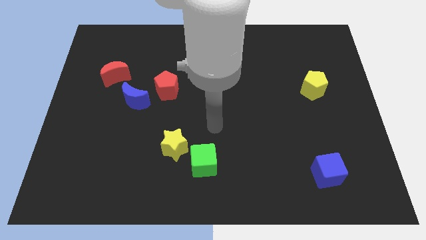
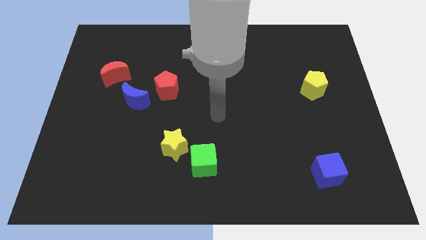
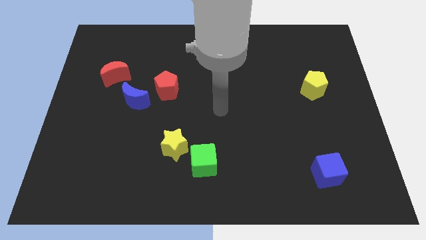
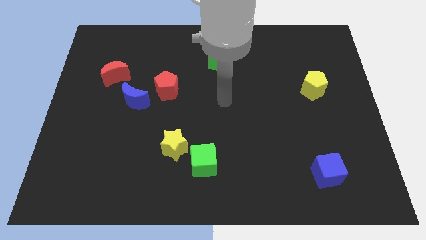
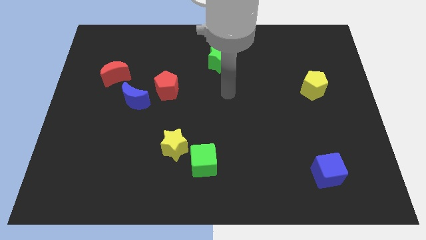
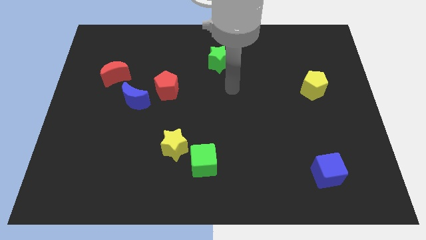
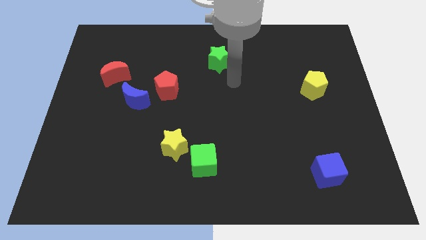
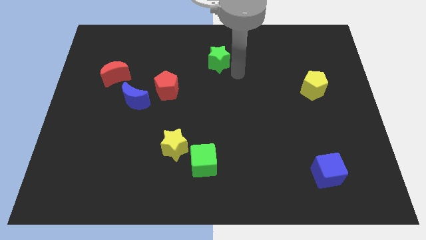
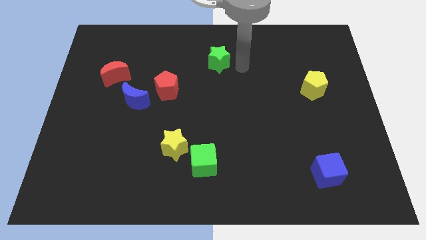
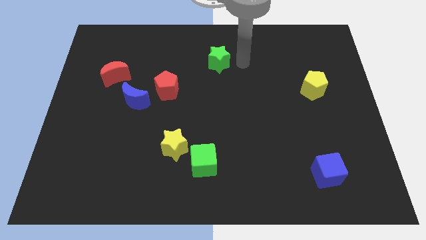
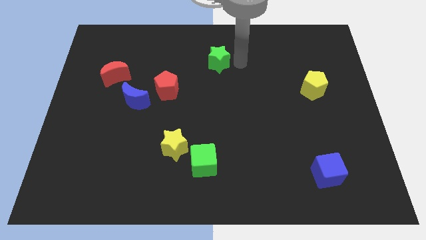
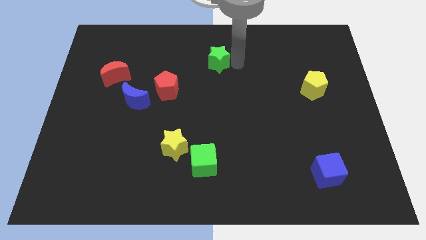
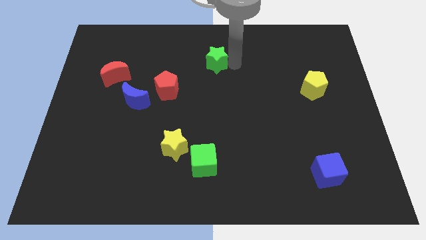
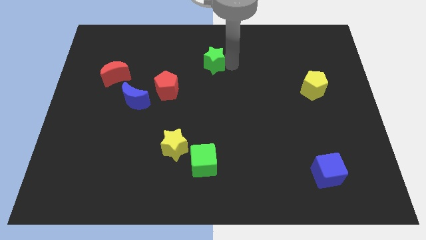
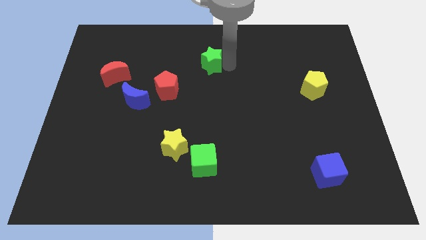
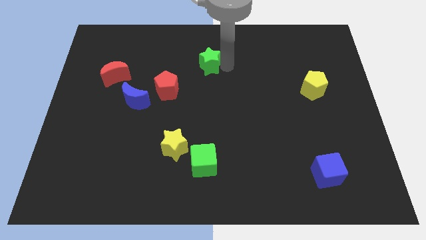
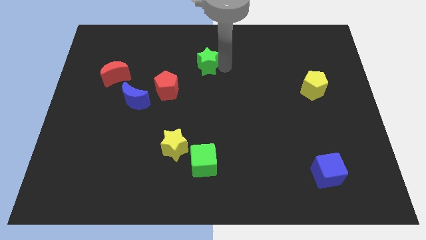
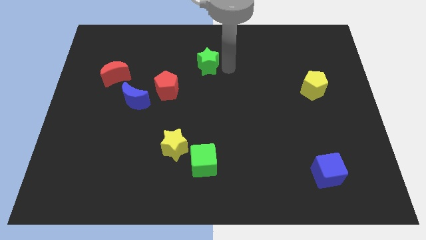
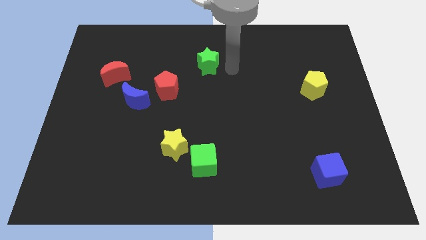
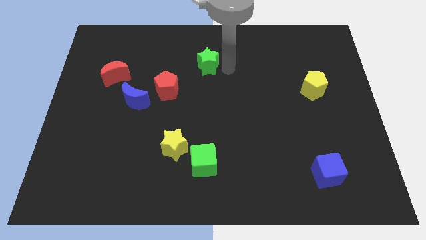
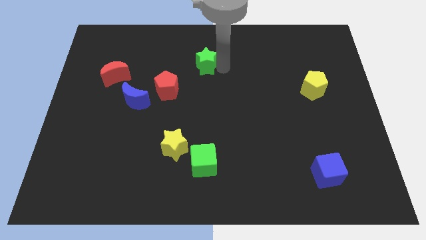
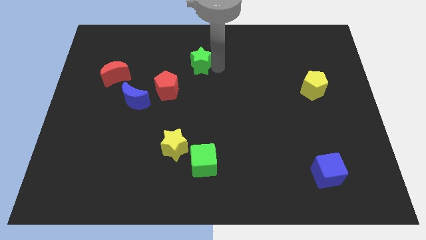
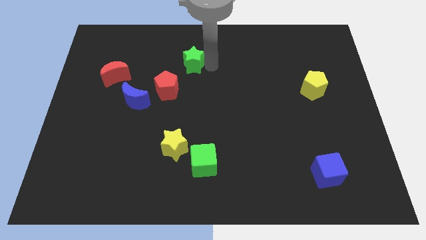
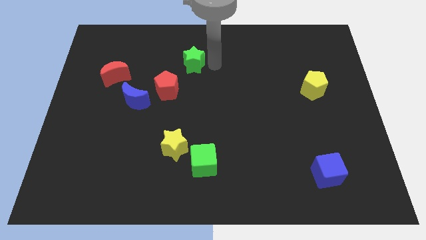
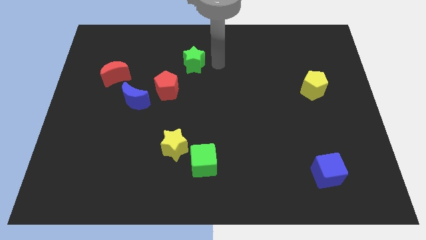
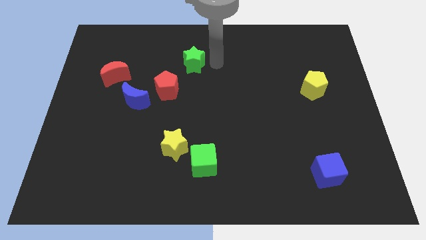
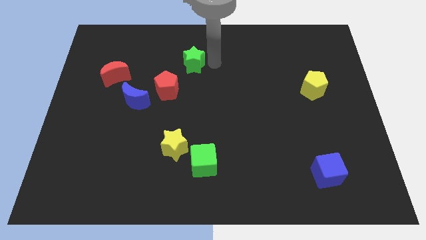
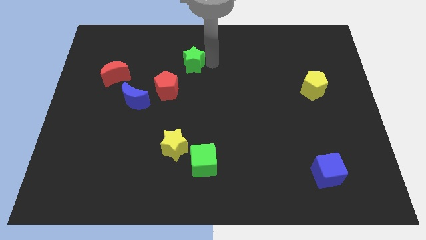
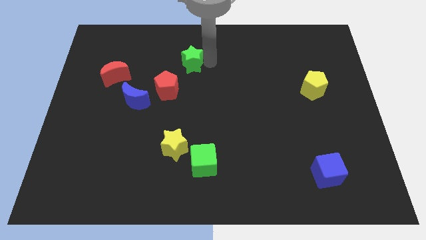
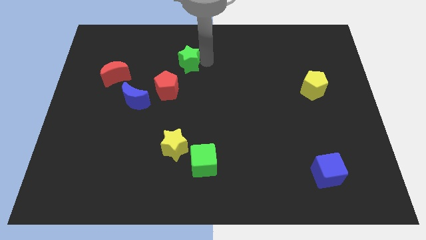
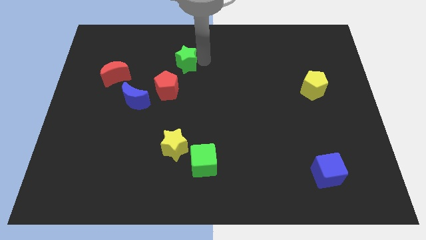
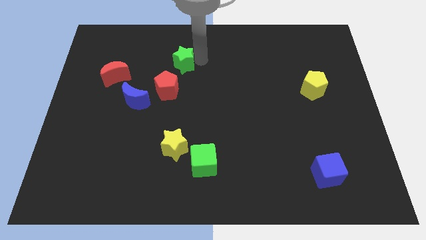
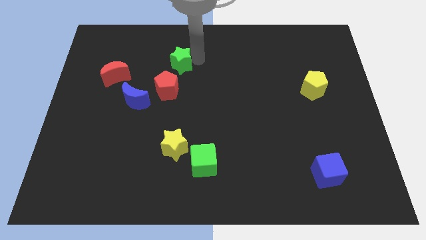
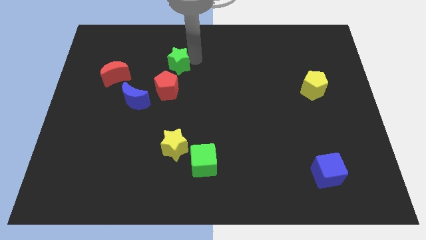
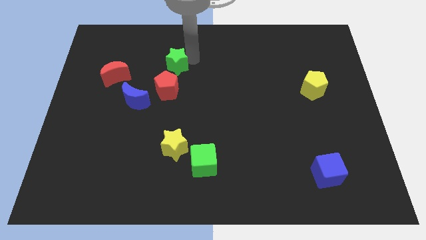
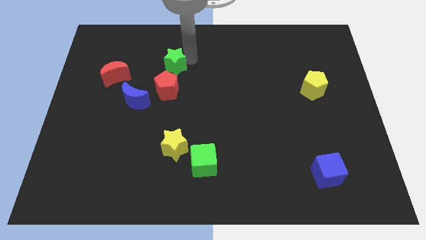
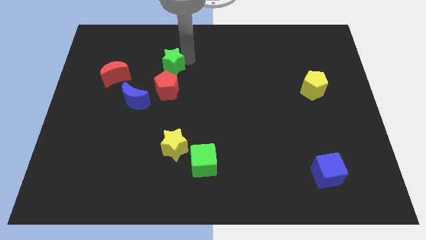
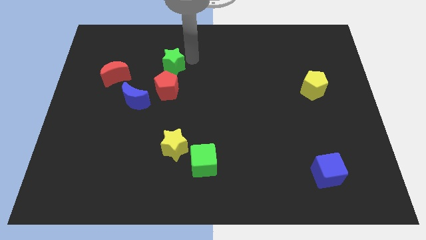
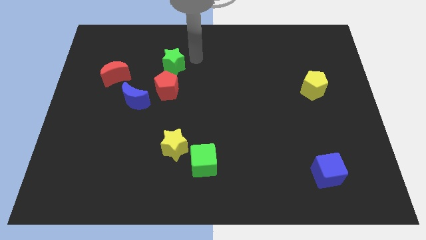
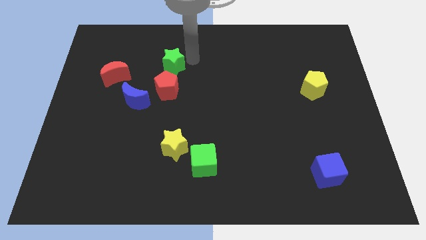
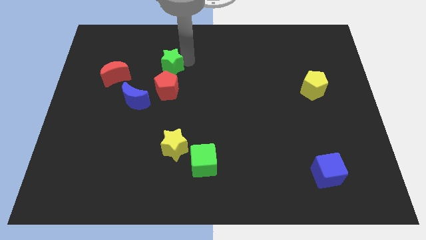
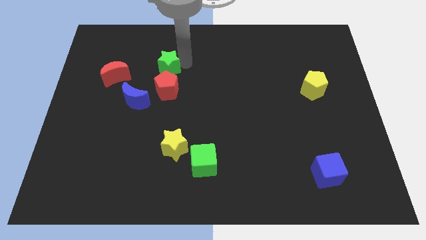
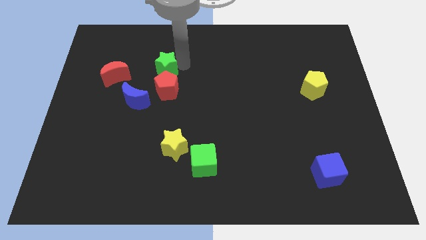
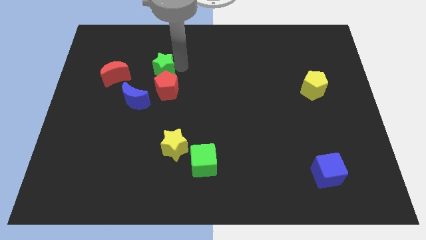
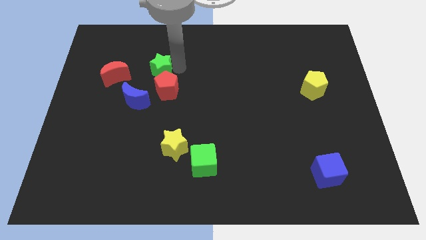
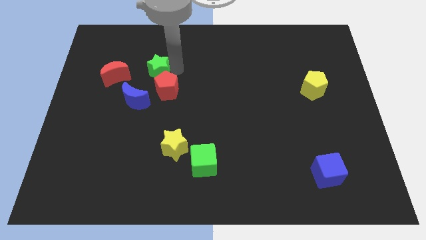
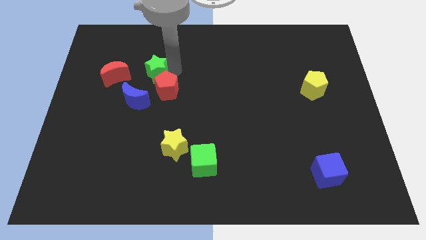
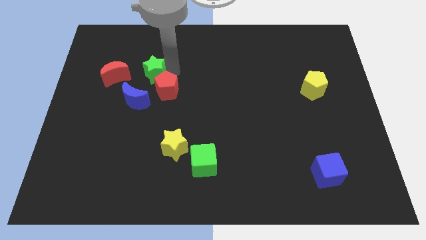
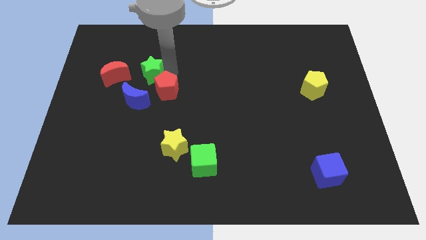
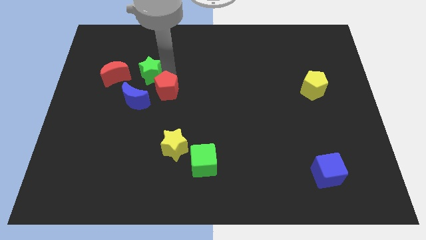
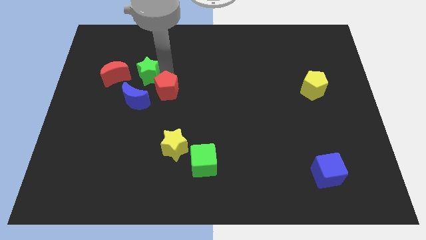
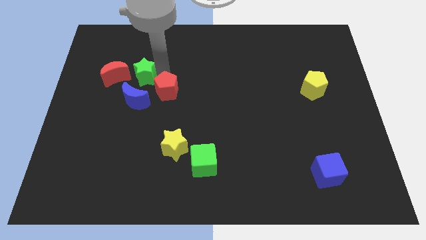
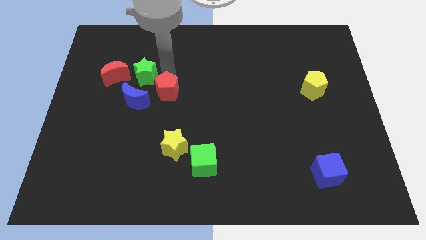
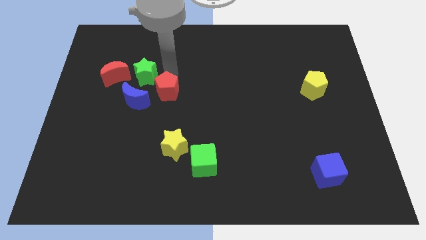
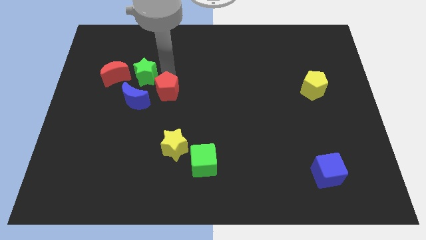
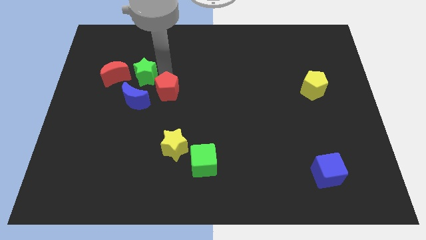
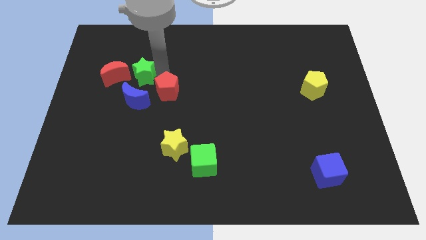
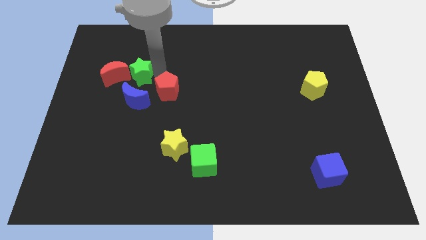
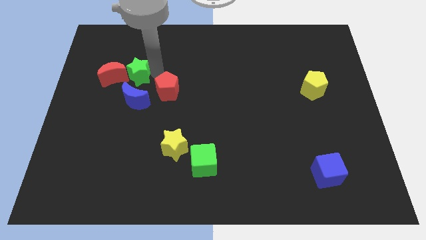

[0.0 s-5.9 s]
slide the green star towards the red moon

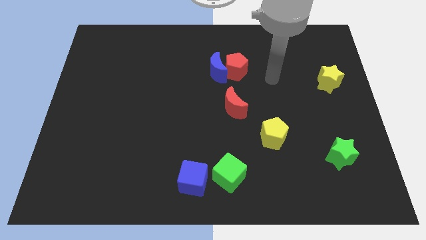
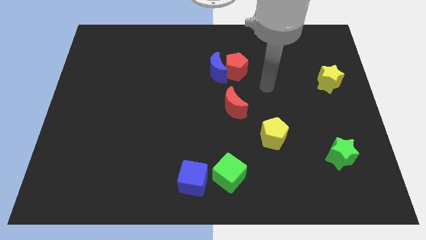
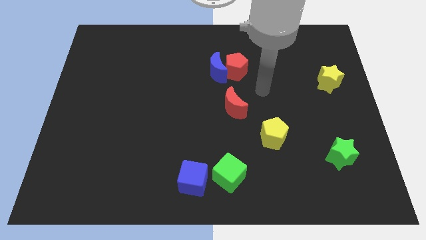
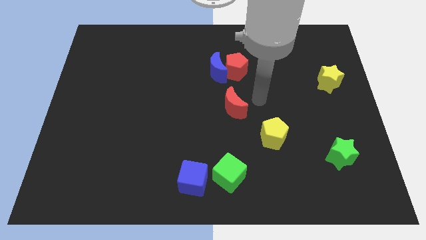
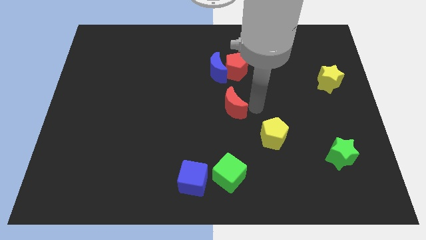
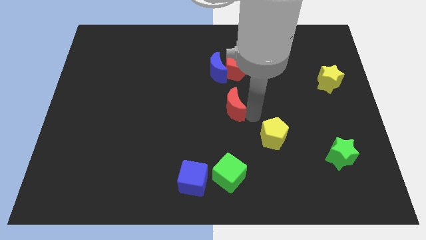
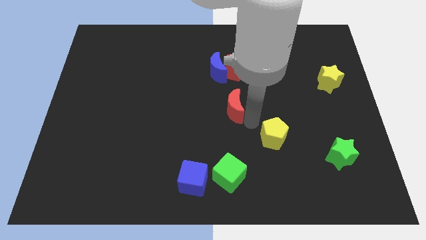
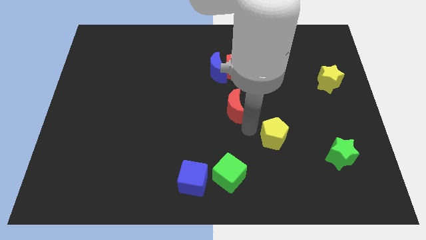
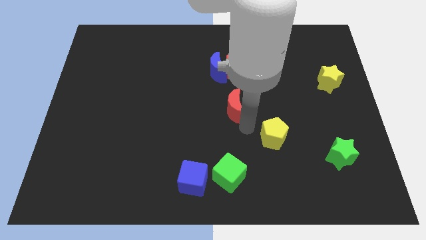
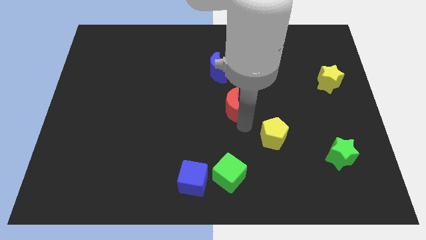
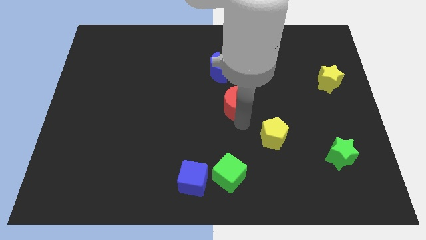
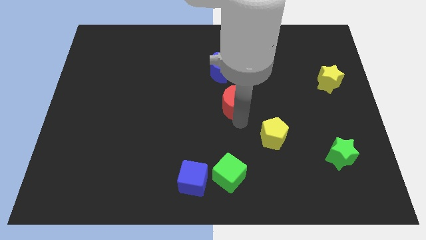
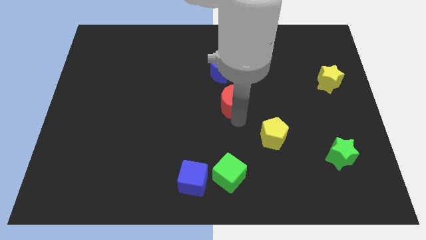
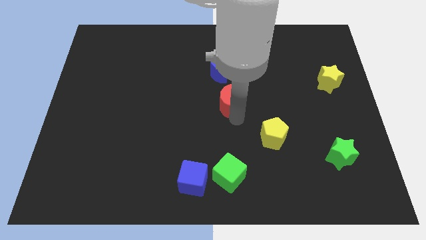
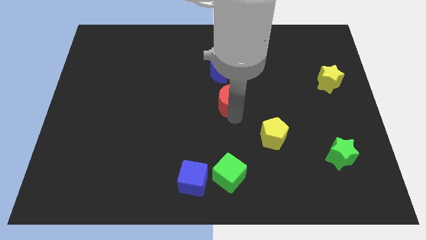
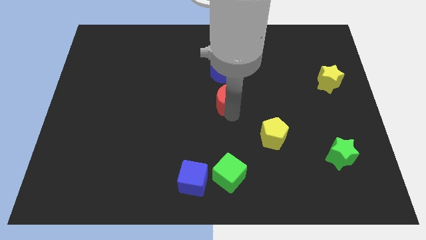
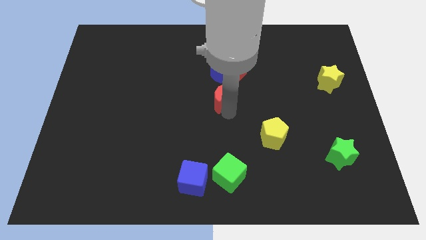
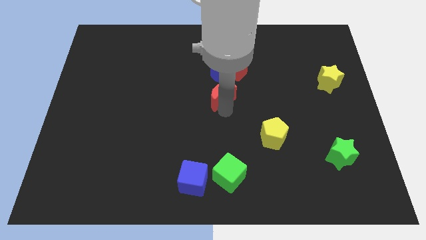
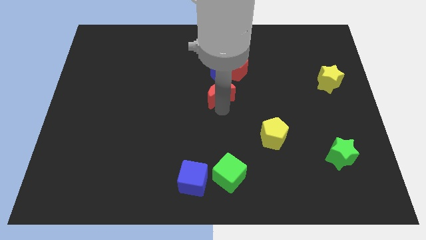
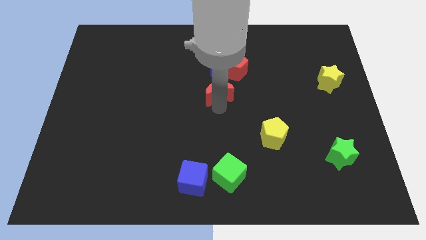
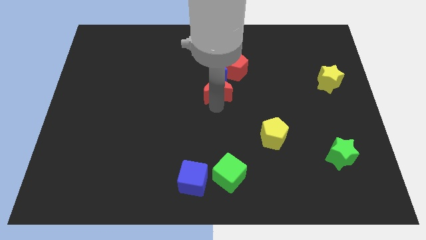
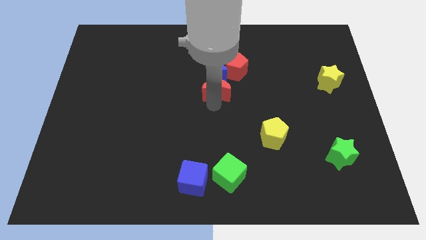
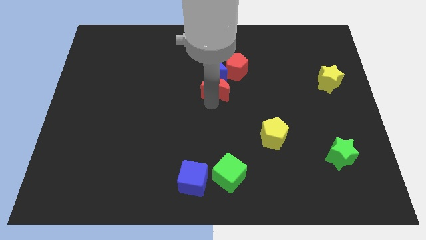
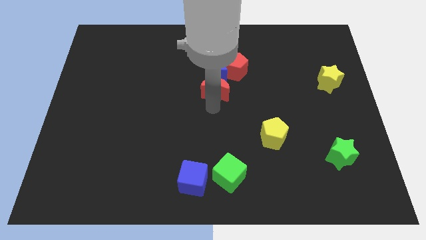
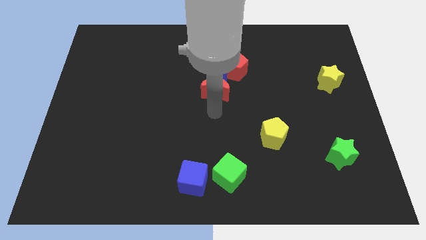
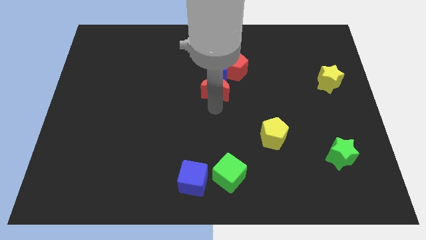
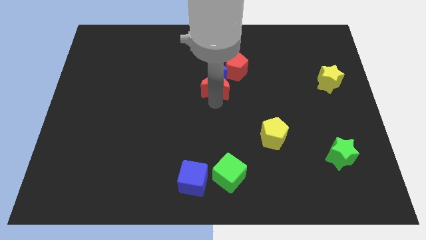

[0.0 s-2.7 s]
push the red moon to the blue moon
